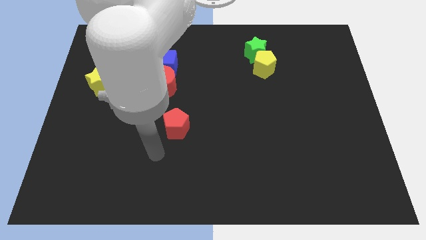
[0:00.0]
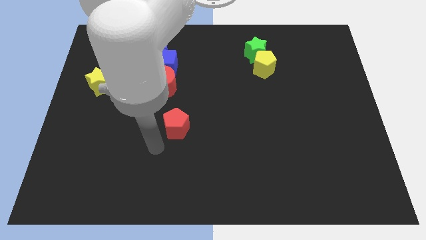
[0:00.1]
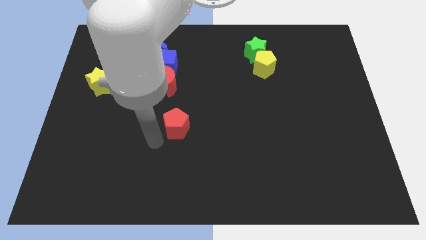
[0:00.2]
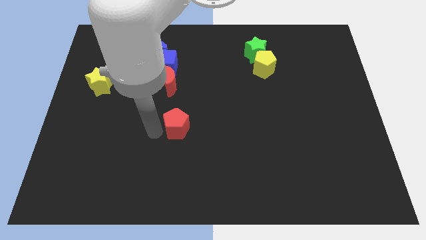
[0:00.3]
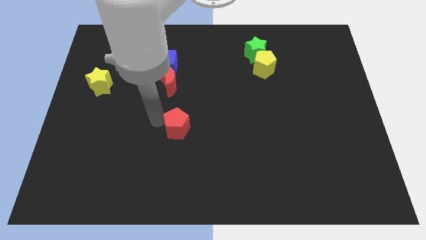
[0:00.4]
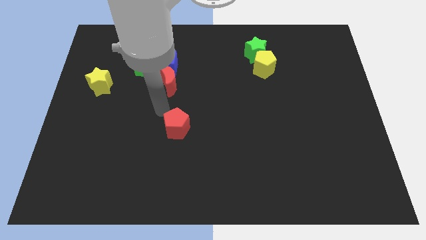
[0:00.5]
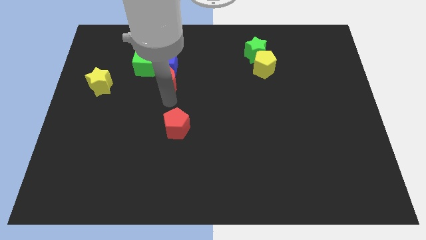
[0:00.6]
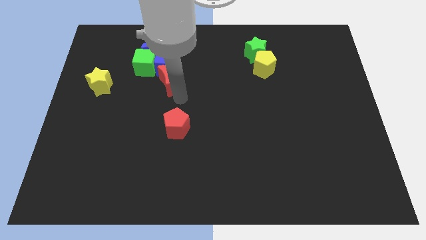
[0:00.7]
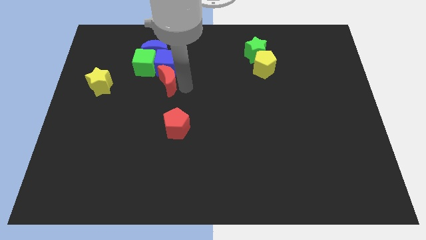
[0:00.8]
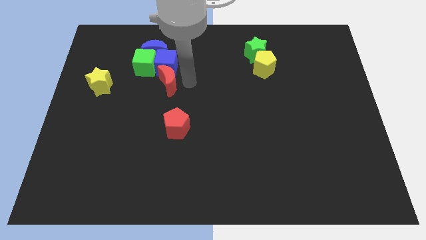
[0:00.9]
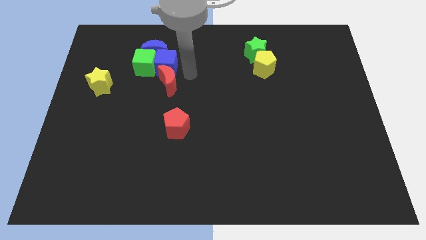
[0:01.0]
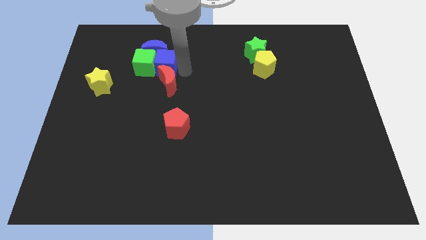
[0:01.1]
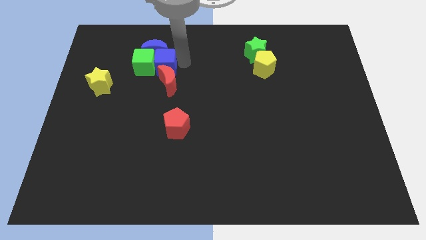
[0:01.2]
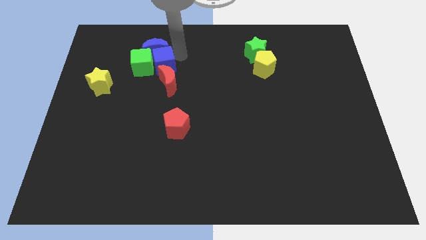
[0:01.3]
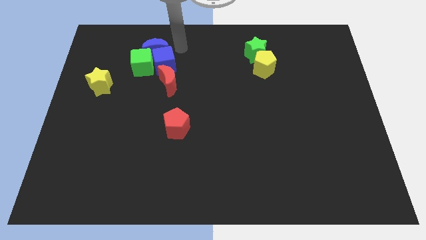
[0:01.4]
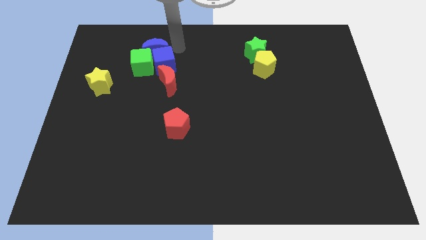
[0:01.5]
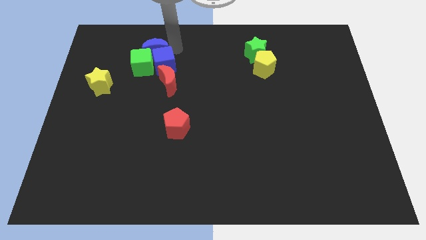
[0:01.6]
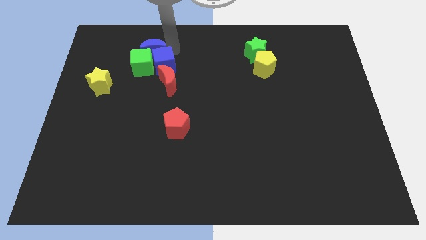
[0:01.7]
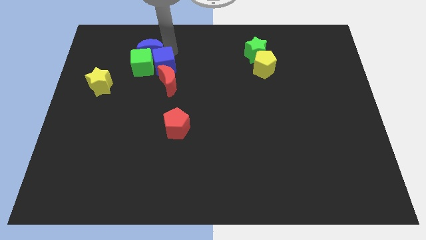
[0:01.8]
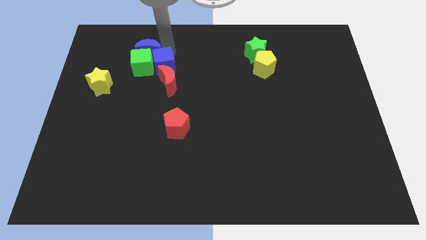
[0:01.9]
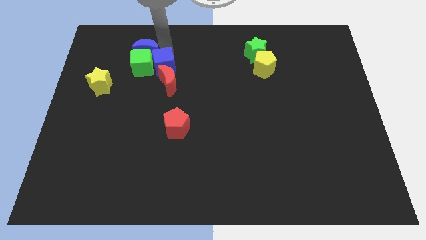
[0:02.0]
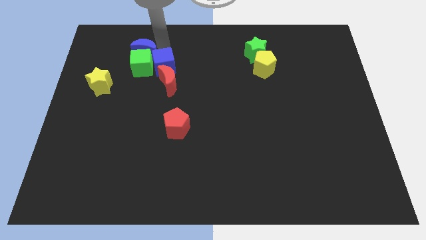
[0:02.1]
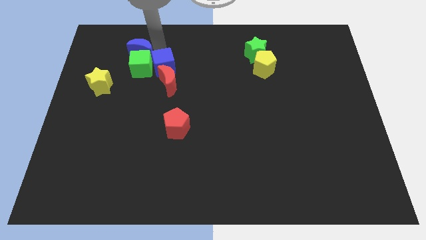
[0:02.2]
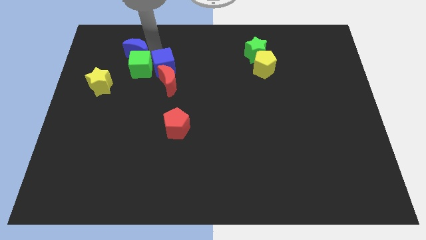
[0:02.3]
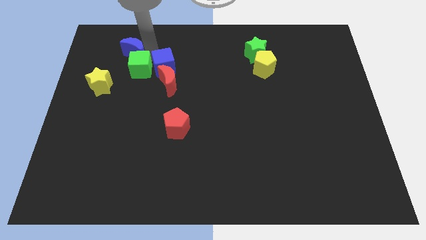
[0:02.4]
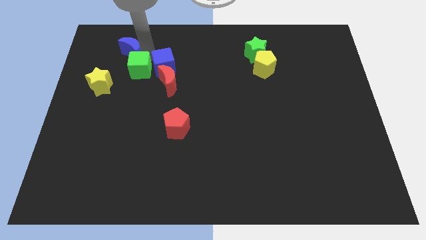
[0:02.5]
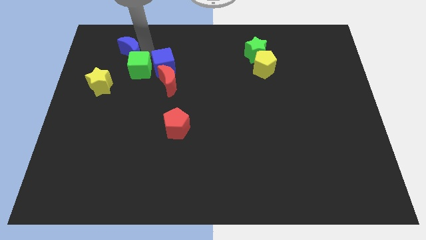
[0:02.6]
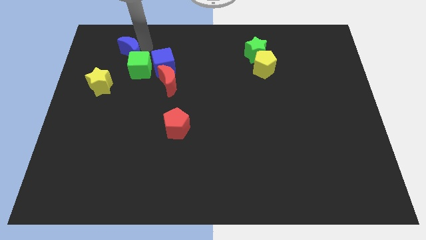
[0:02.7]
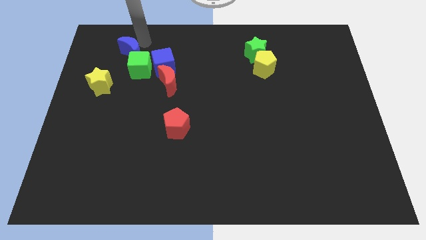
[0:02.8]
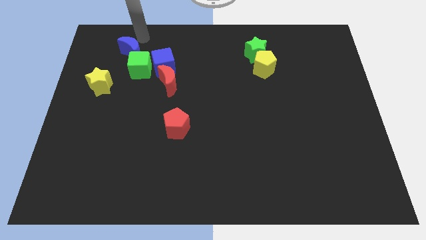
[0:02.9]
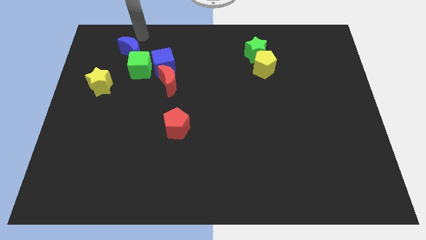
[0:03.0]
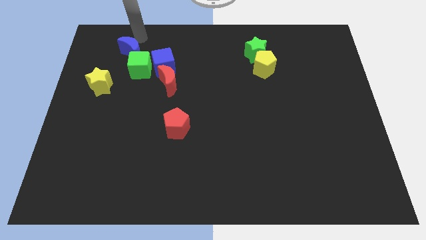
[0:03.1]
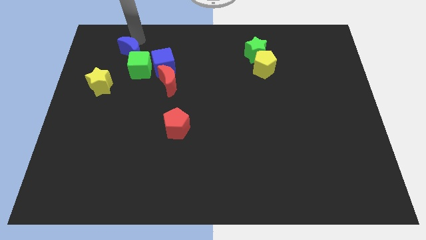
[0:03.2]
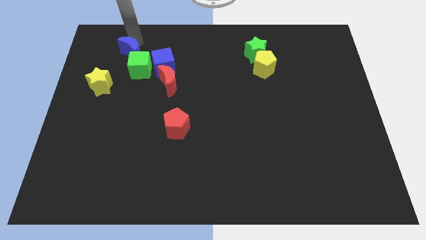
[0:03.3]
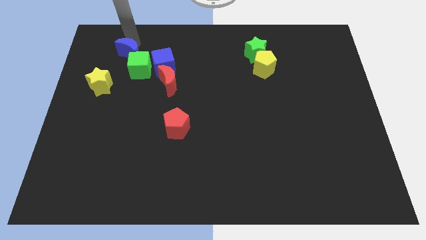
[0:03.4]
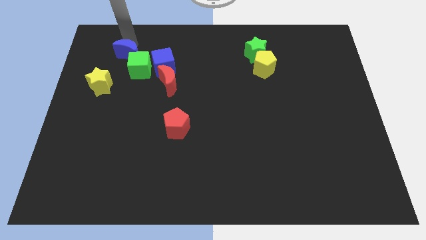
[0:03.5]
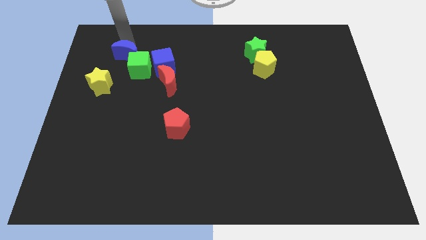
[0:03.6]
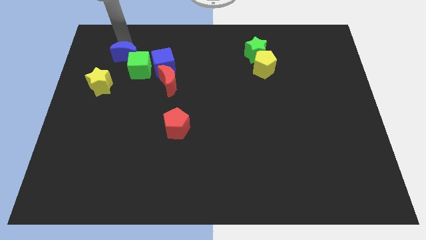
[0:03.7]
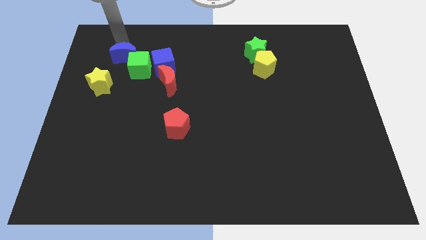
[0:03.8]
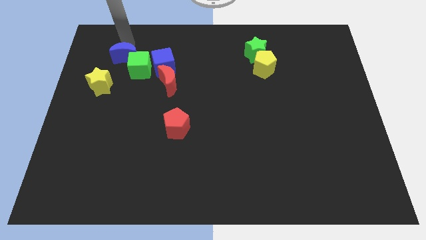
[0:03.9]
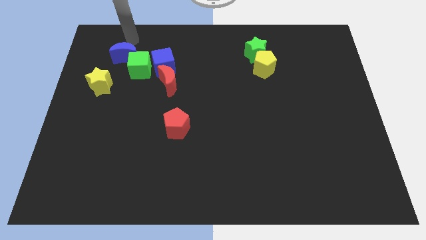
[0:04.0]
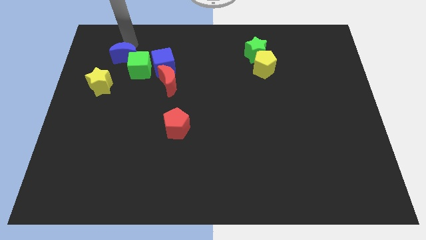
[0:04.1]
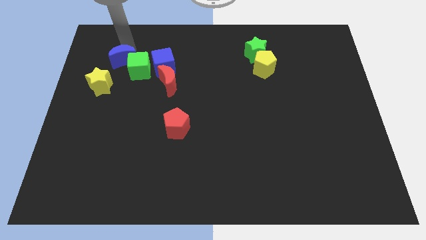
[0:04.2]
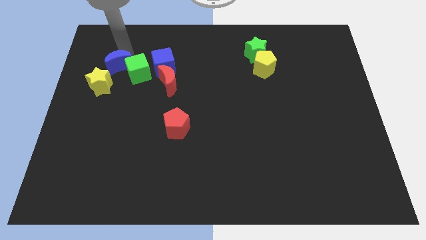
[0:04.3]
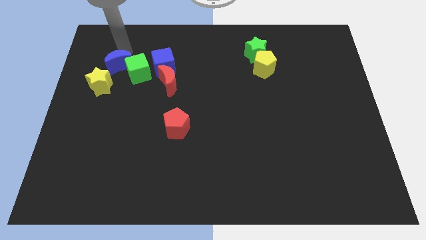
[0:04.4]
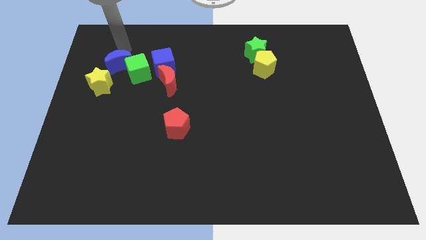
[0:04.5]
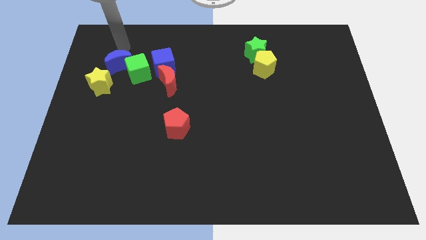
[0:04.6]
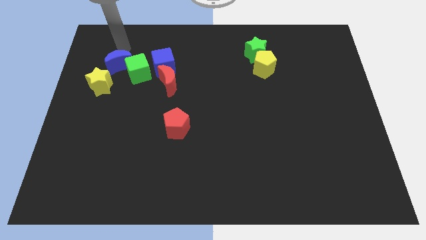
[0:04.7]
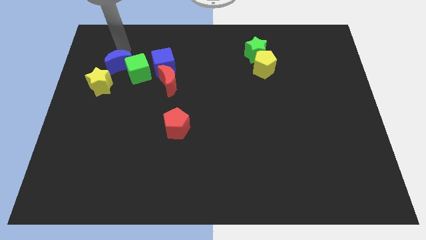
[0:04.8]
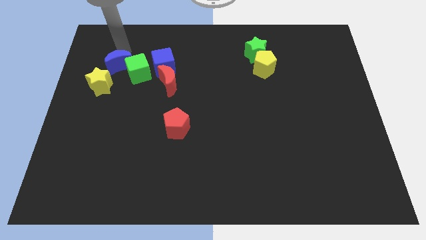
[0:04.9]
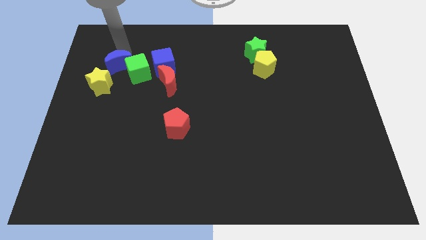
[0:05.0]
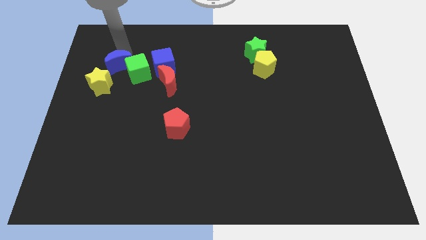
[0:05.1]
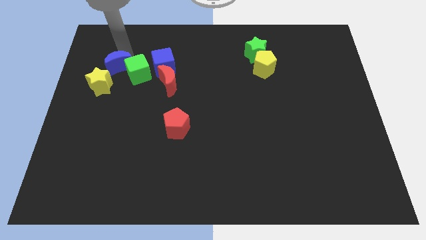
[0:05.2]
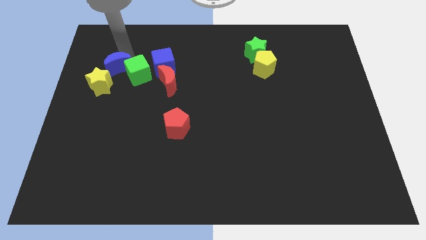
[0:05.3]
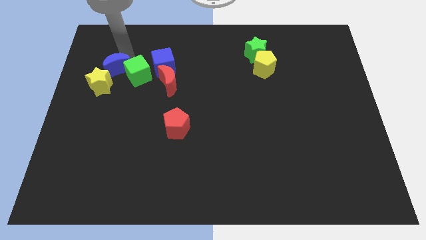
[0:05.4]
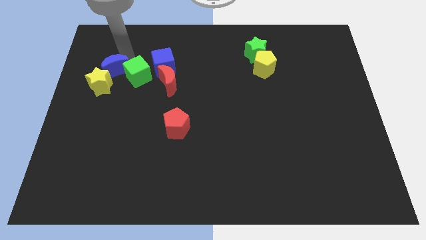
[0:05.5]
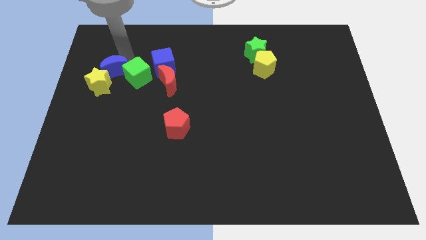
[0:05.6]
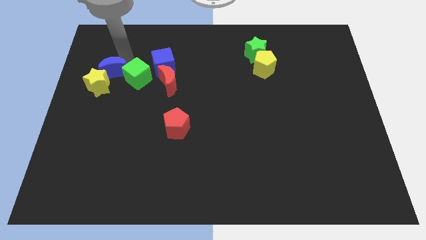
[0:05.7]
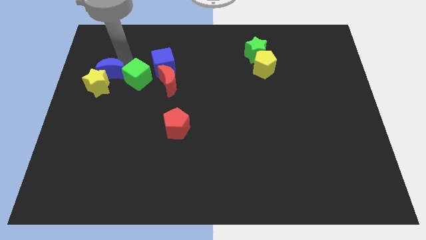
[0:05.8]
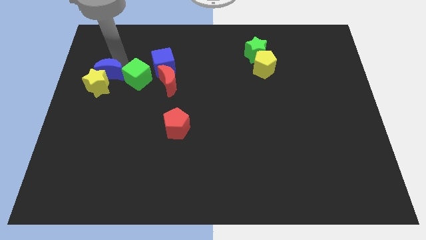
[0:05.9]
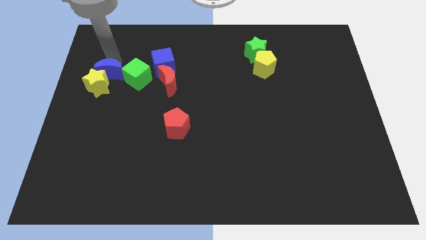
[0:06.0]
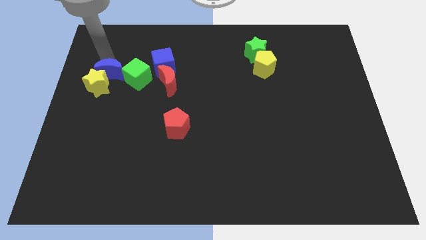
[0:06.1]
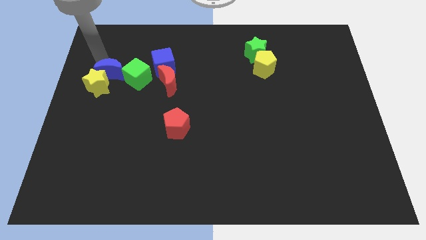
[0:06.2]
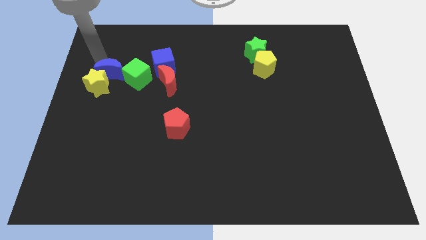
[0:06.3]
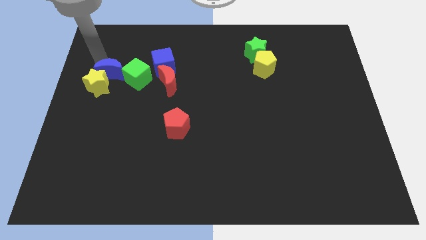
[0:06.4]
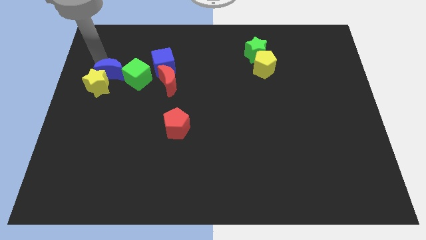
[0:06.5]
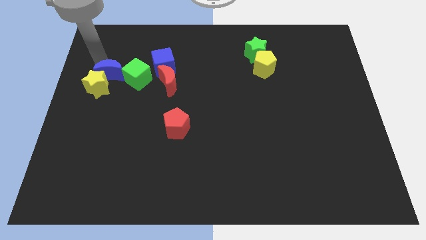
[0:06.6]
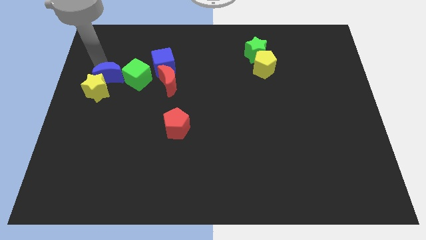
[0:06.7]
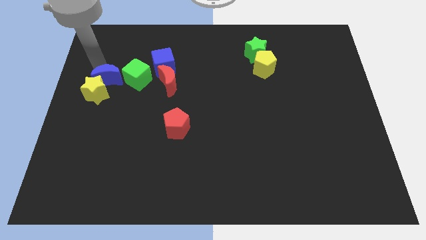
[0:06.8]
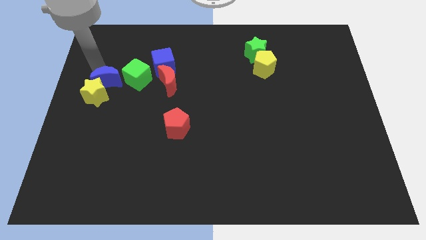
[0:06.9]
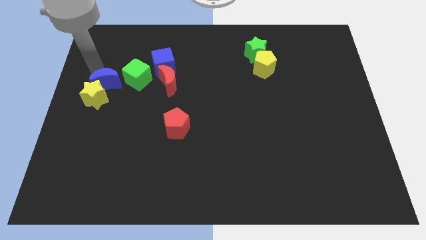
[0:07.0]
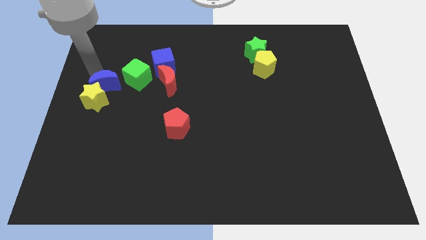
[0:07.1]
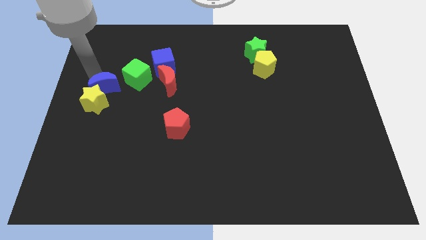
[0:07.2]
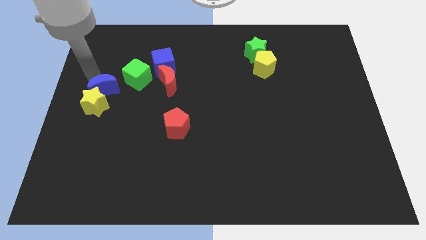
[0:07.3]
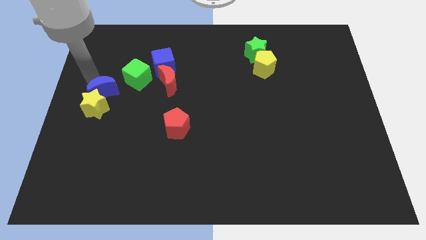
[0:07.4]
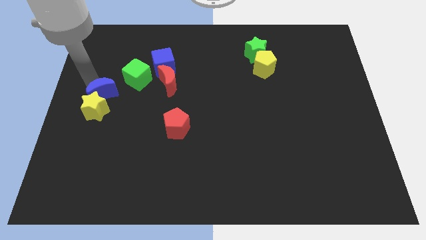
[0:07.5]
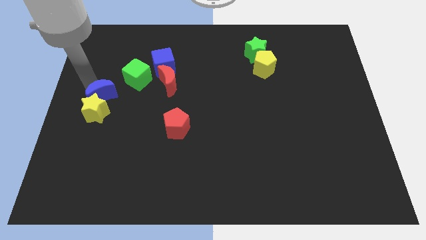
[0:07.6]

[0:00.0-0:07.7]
slide the blue moon down a little
